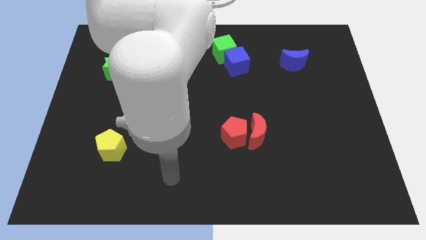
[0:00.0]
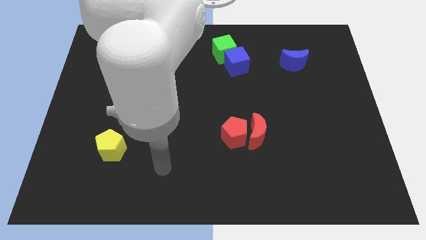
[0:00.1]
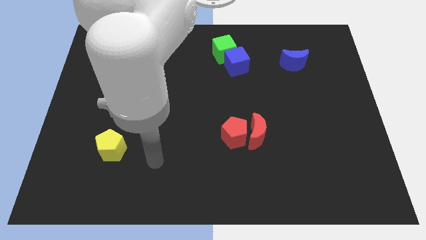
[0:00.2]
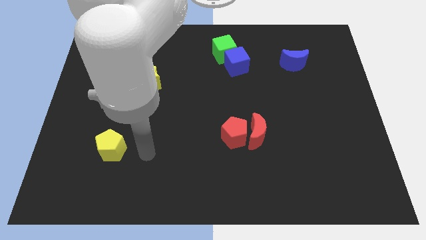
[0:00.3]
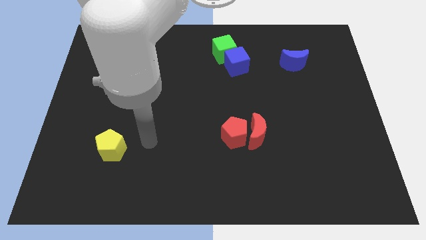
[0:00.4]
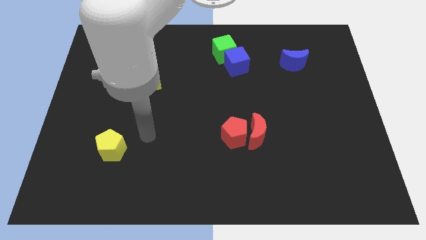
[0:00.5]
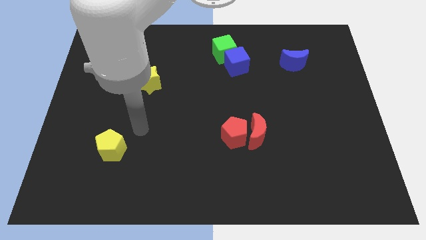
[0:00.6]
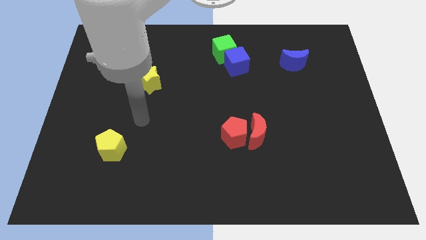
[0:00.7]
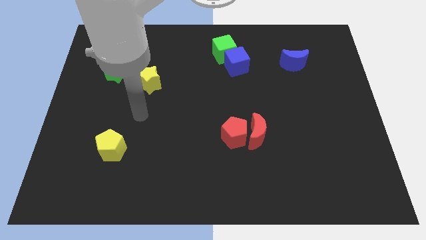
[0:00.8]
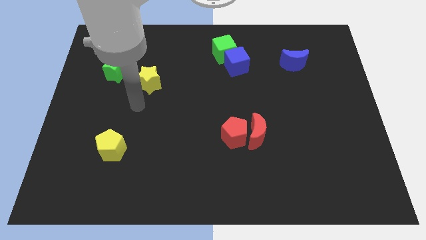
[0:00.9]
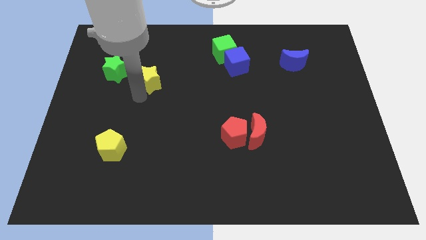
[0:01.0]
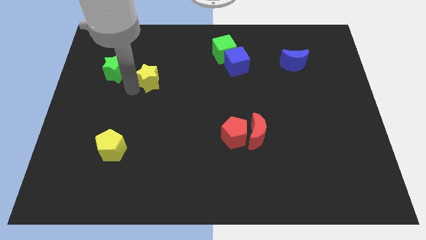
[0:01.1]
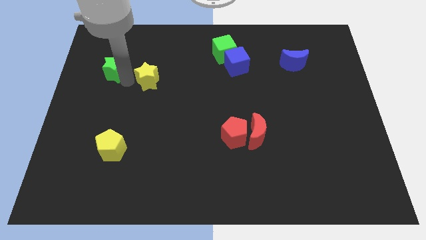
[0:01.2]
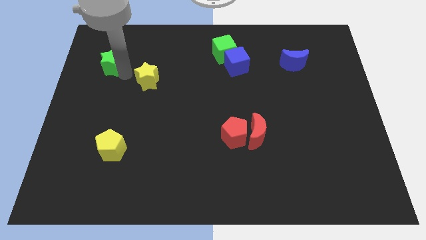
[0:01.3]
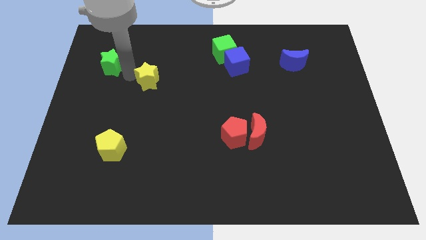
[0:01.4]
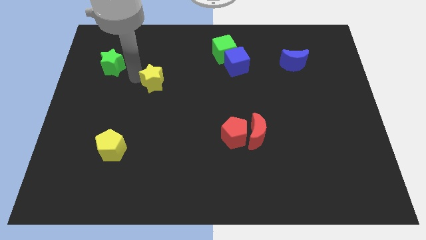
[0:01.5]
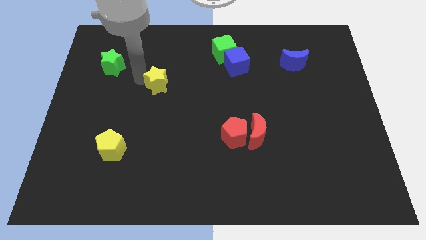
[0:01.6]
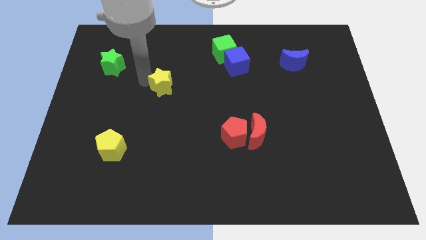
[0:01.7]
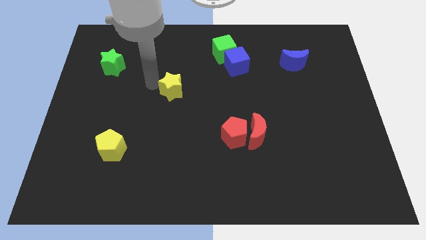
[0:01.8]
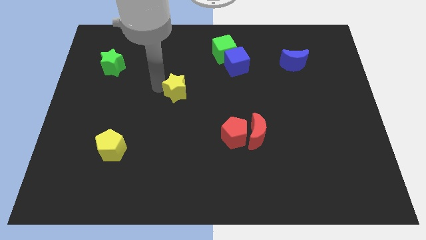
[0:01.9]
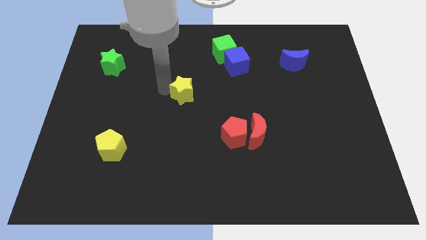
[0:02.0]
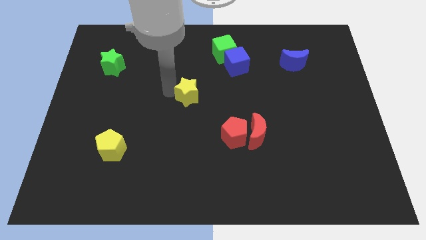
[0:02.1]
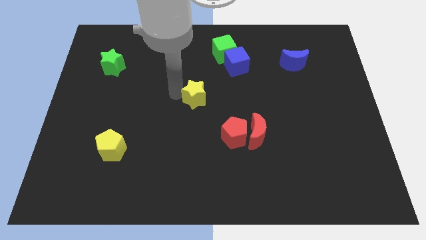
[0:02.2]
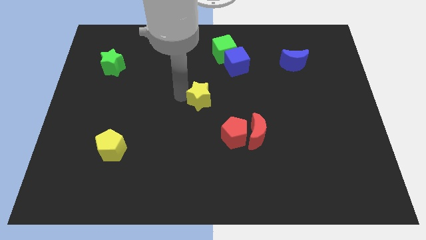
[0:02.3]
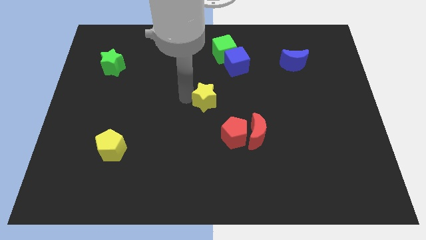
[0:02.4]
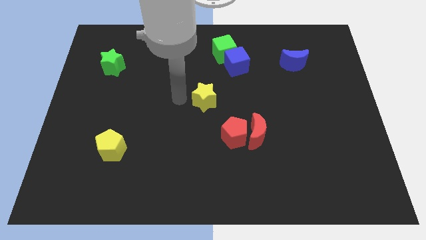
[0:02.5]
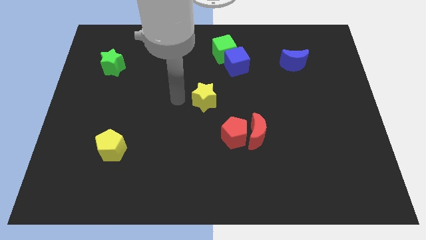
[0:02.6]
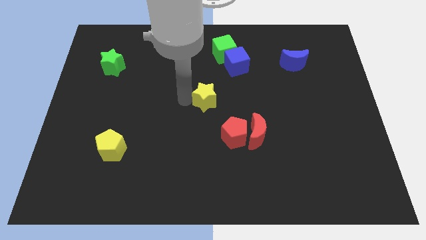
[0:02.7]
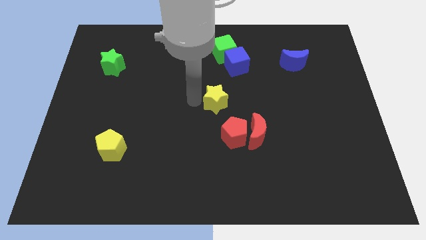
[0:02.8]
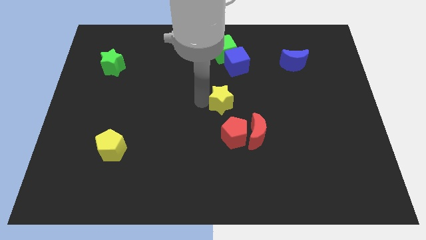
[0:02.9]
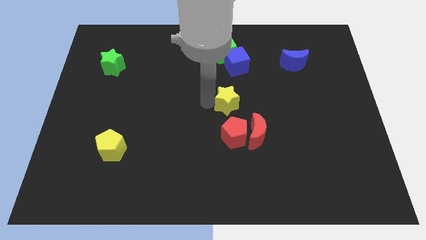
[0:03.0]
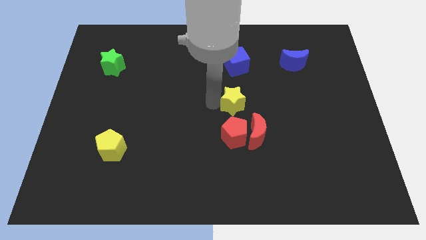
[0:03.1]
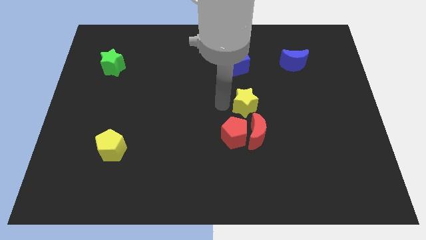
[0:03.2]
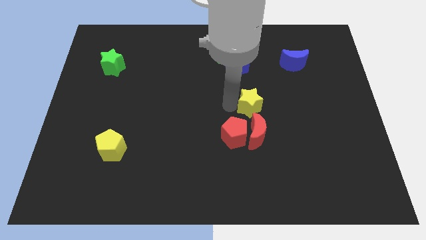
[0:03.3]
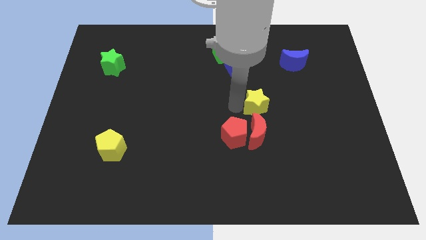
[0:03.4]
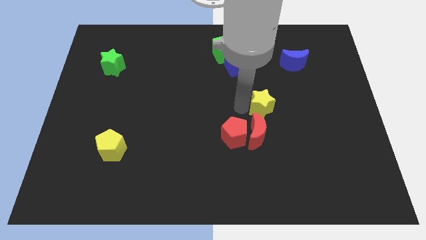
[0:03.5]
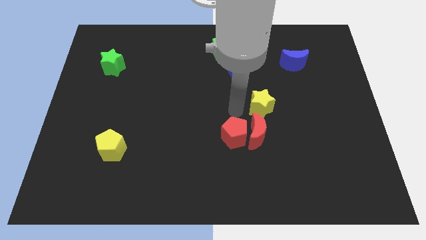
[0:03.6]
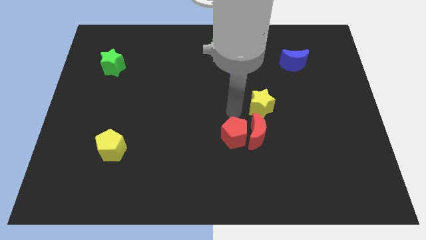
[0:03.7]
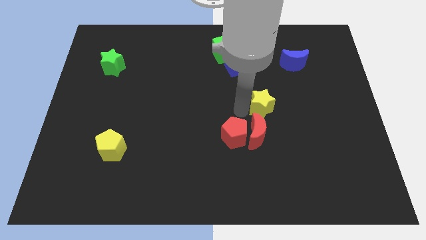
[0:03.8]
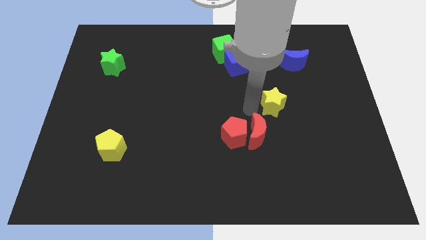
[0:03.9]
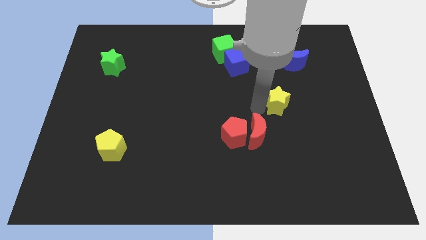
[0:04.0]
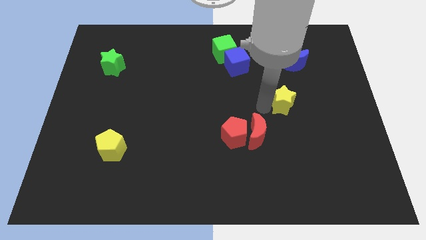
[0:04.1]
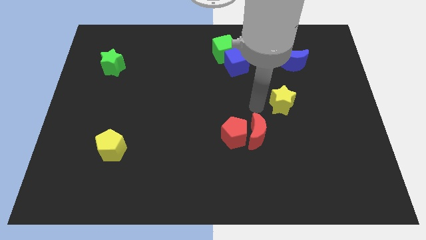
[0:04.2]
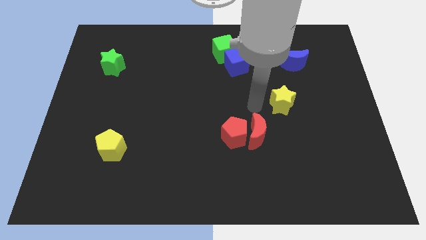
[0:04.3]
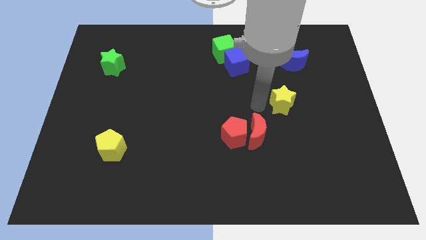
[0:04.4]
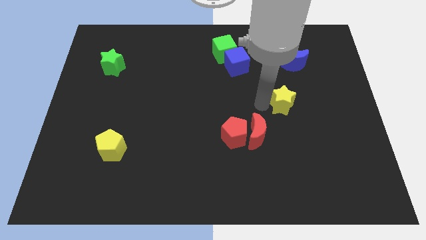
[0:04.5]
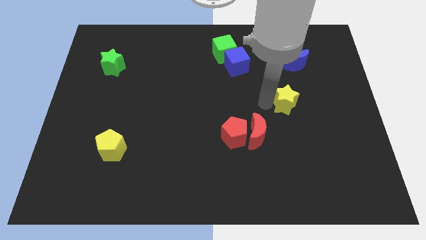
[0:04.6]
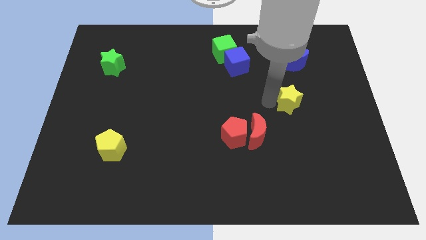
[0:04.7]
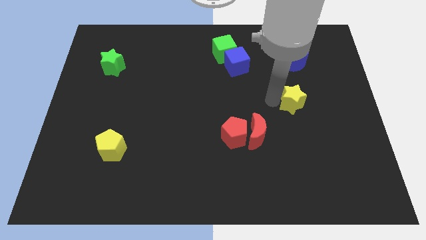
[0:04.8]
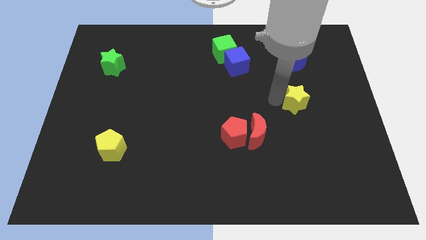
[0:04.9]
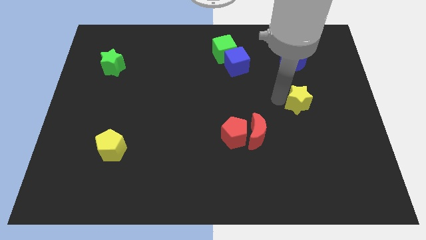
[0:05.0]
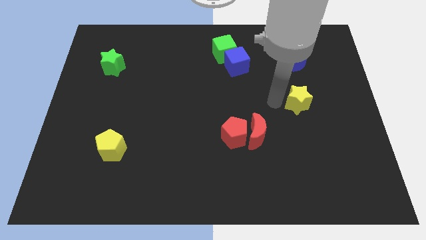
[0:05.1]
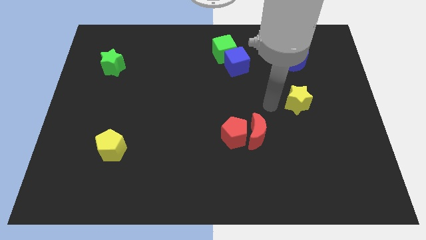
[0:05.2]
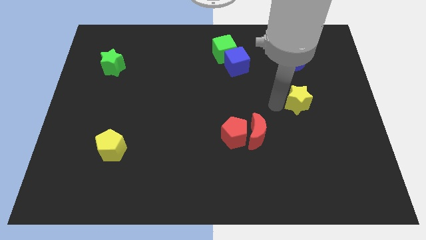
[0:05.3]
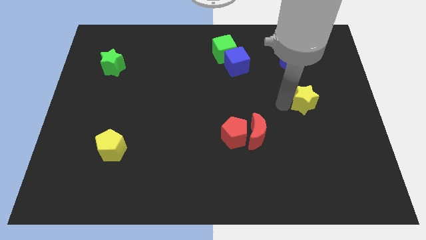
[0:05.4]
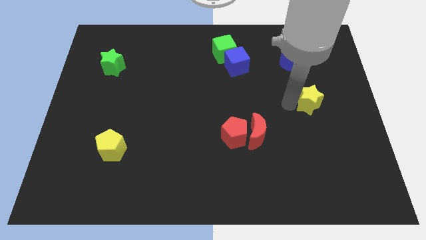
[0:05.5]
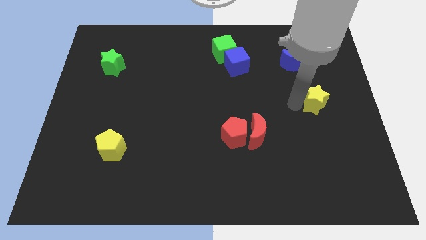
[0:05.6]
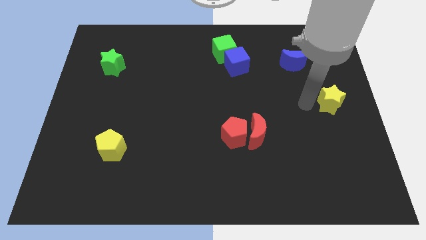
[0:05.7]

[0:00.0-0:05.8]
move the yellow star to the right side
